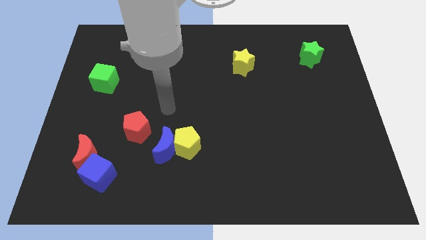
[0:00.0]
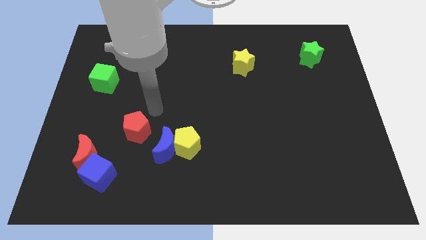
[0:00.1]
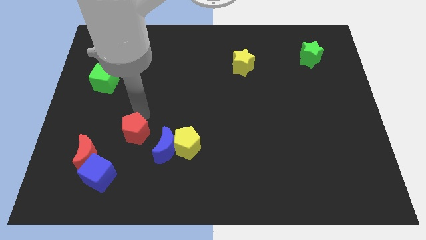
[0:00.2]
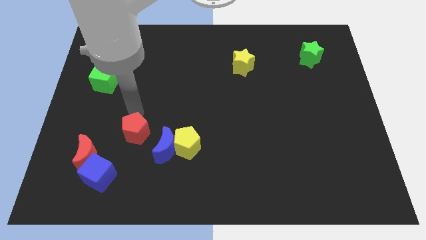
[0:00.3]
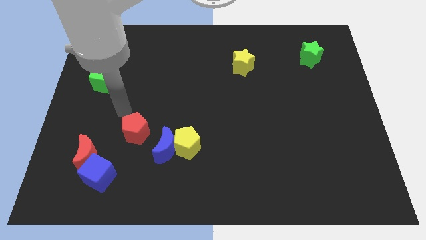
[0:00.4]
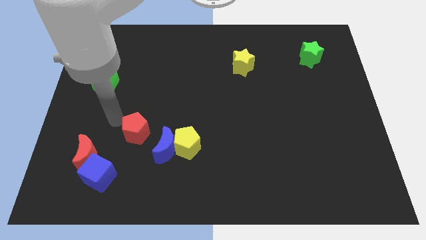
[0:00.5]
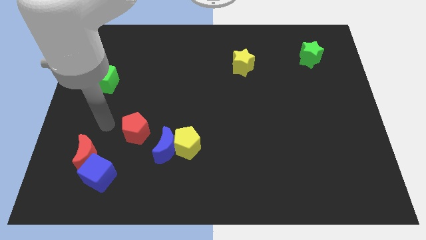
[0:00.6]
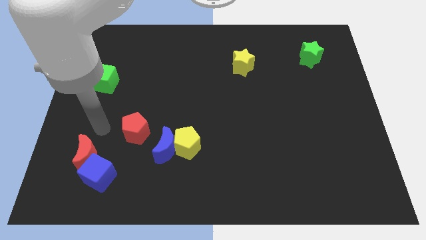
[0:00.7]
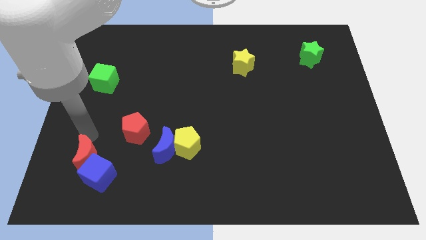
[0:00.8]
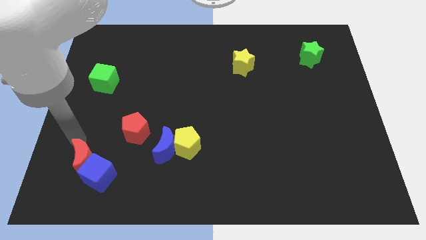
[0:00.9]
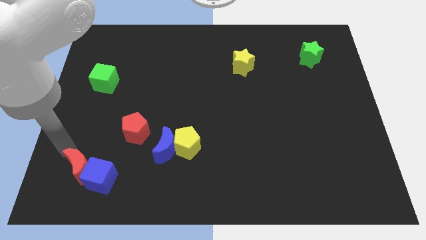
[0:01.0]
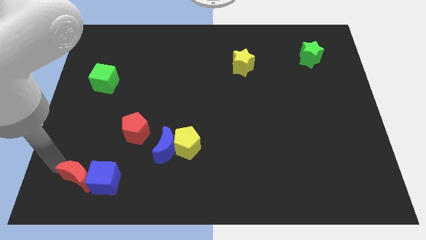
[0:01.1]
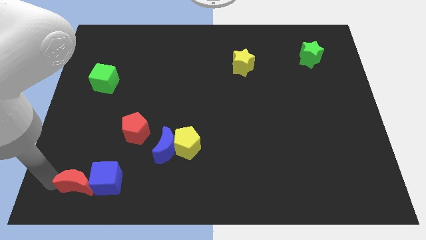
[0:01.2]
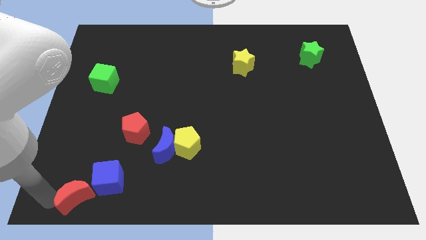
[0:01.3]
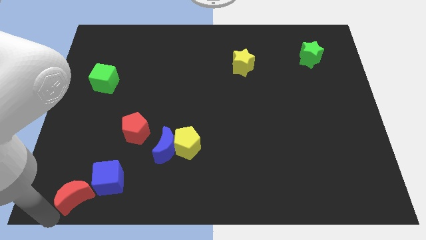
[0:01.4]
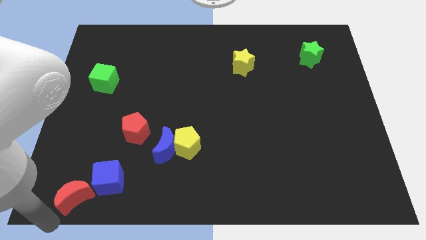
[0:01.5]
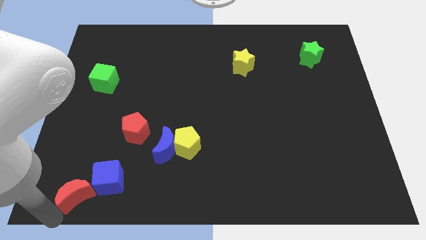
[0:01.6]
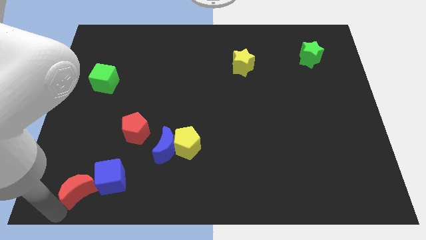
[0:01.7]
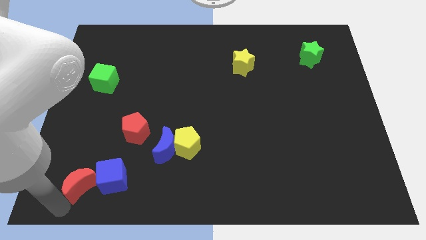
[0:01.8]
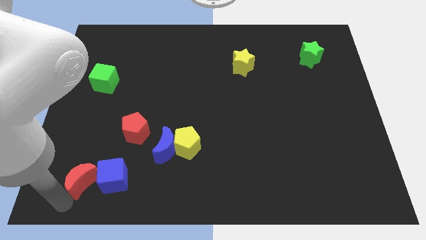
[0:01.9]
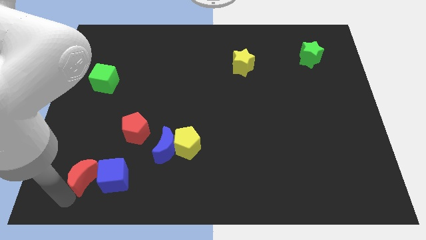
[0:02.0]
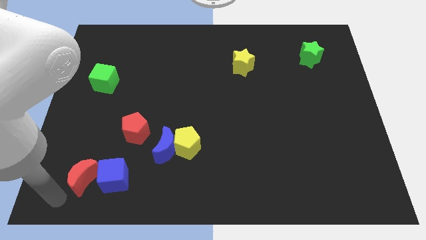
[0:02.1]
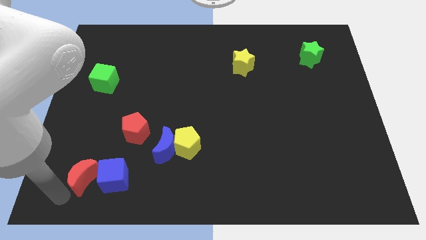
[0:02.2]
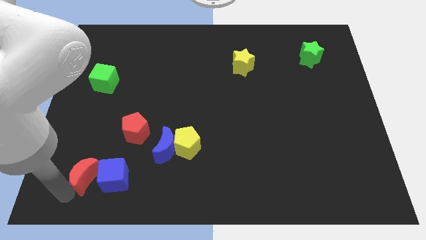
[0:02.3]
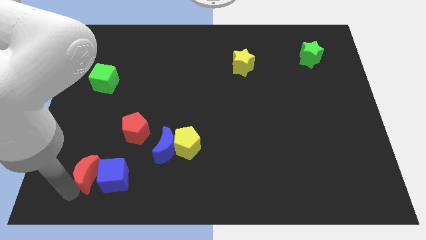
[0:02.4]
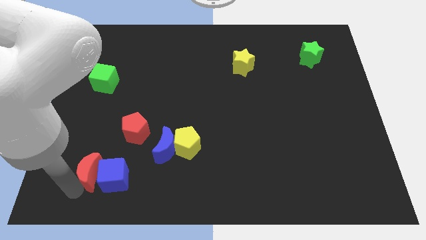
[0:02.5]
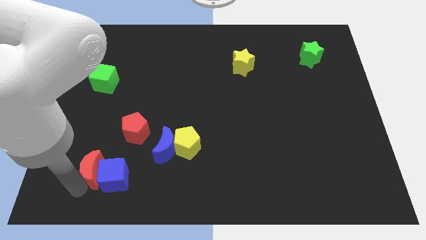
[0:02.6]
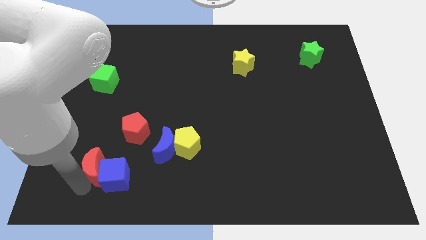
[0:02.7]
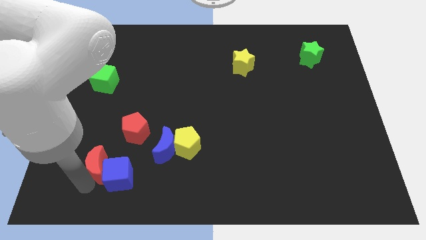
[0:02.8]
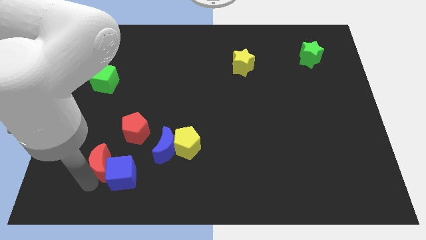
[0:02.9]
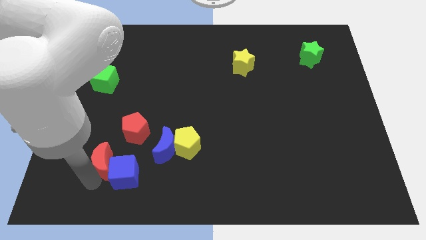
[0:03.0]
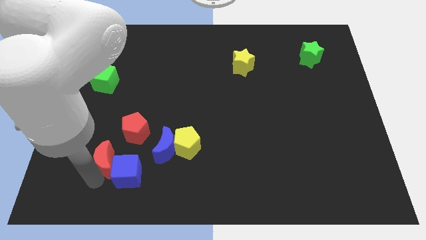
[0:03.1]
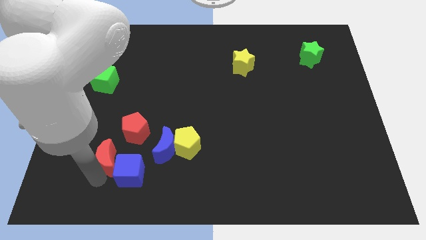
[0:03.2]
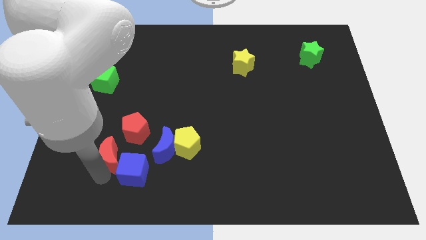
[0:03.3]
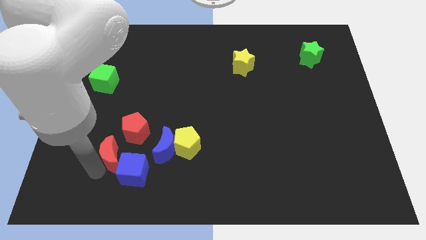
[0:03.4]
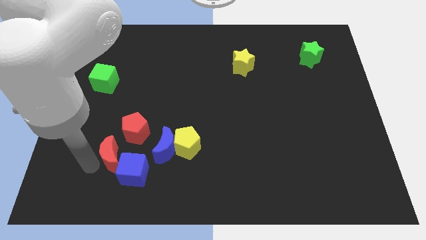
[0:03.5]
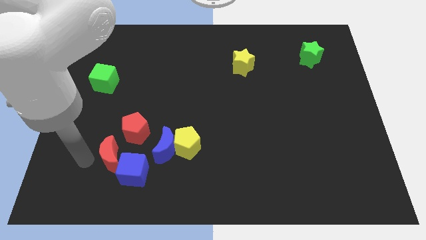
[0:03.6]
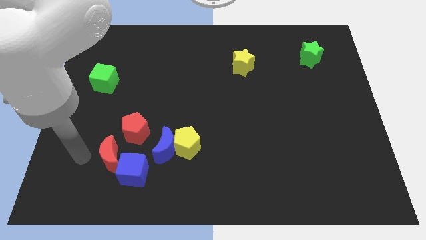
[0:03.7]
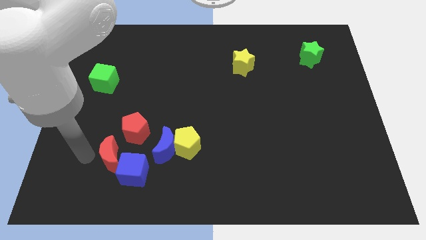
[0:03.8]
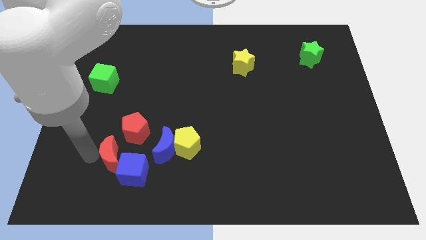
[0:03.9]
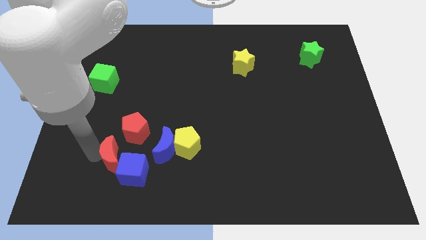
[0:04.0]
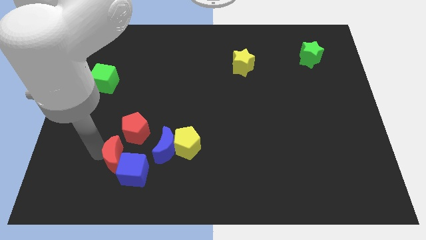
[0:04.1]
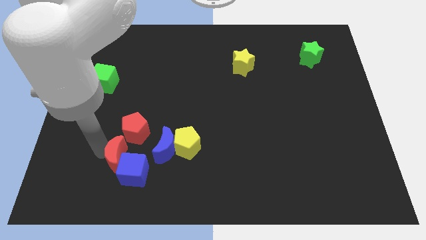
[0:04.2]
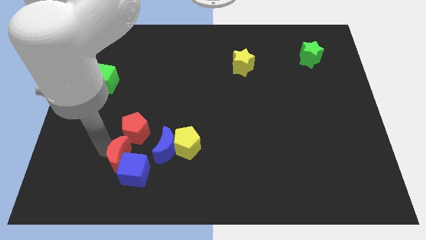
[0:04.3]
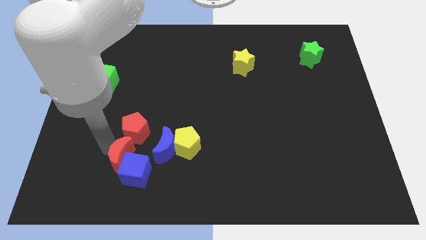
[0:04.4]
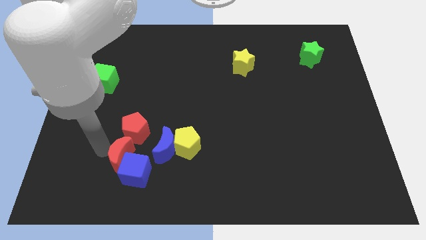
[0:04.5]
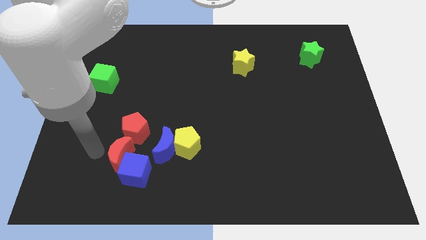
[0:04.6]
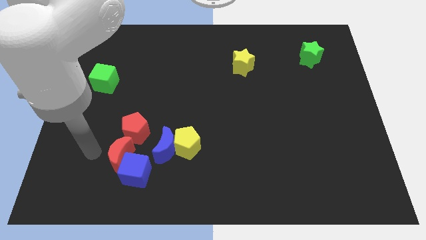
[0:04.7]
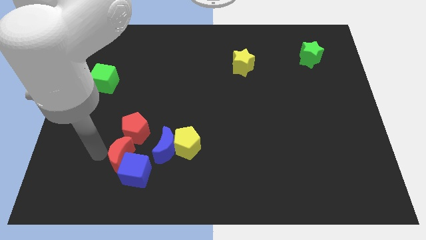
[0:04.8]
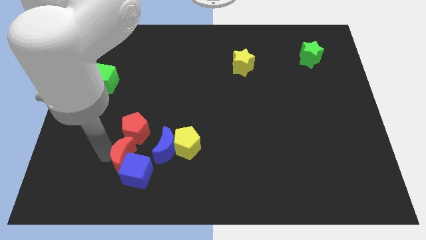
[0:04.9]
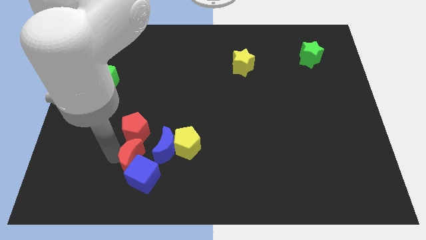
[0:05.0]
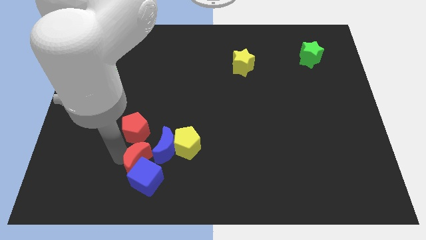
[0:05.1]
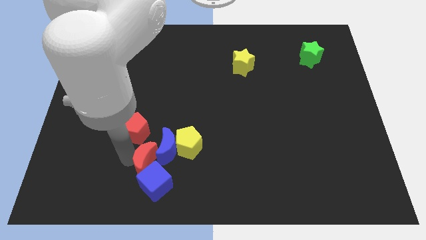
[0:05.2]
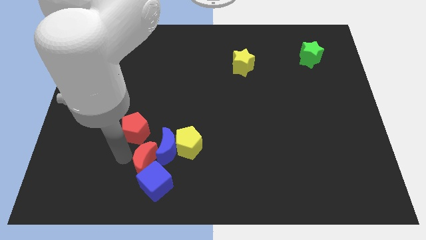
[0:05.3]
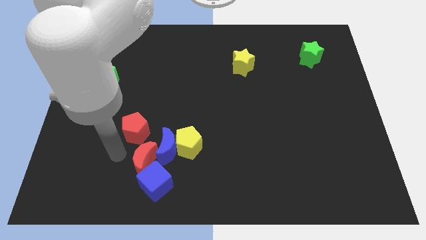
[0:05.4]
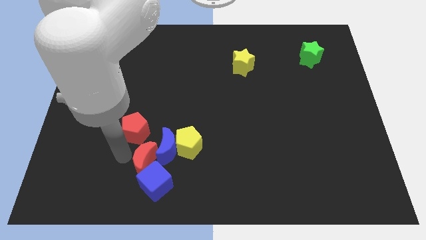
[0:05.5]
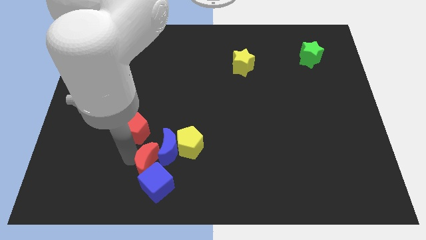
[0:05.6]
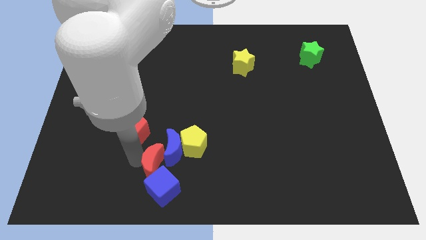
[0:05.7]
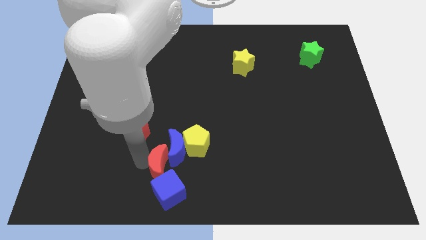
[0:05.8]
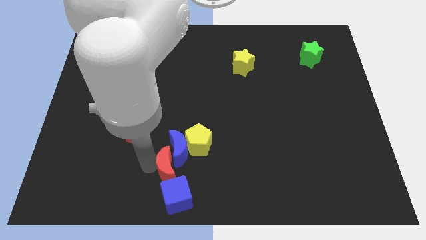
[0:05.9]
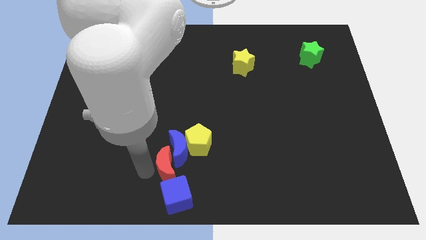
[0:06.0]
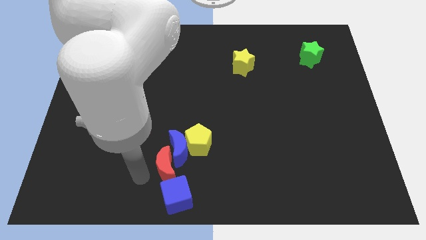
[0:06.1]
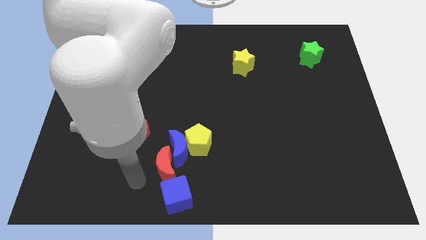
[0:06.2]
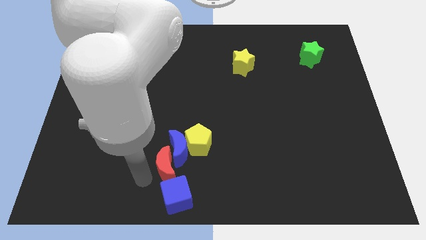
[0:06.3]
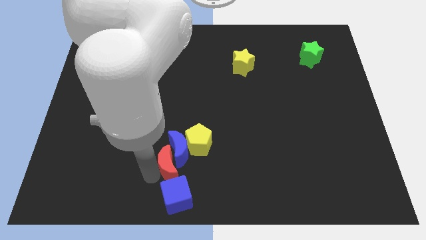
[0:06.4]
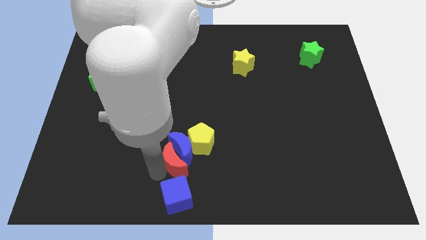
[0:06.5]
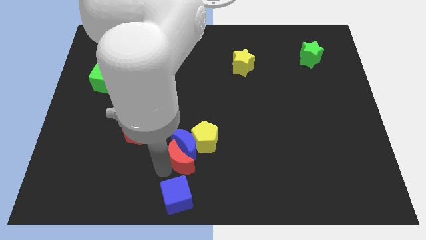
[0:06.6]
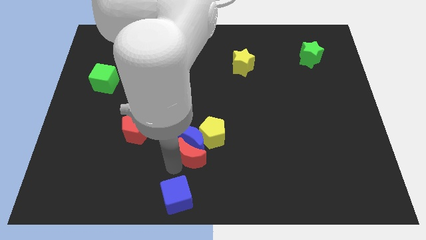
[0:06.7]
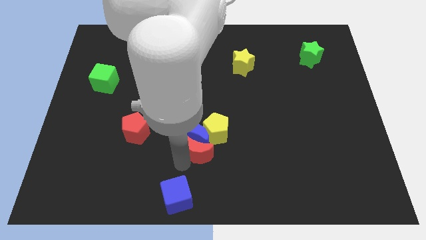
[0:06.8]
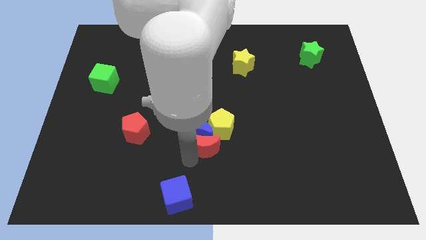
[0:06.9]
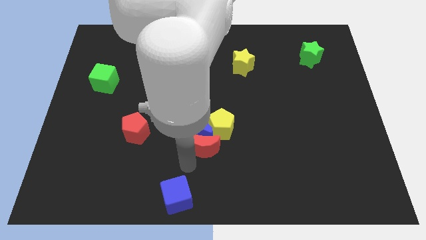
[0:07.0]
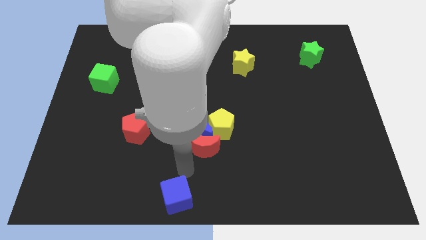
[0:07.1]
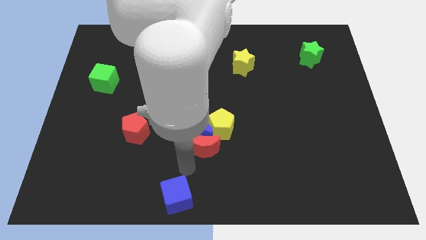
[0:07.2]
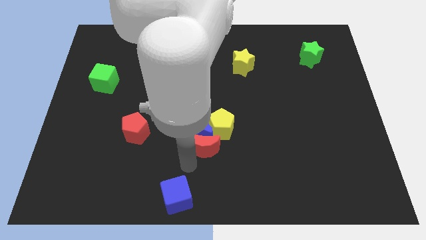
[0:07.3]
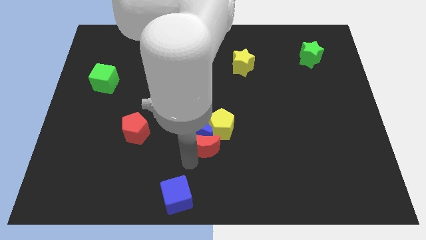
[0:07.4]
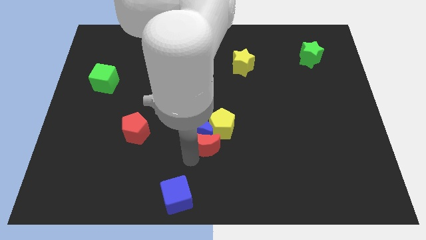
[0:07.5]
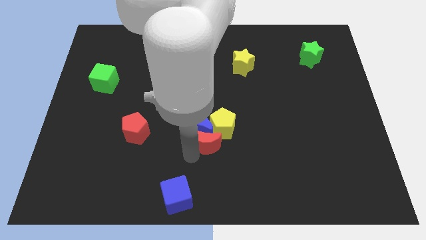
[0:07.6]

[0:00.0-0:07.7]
move the red moon to the yellow pentagon
